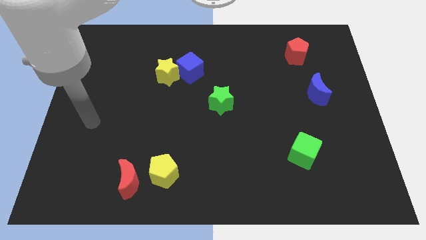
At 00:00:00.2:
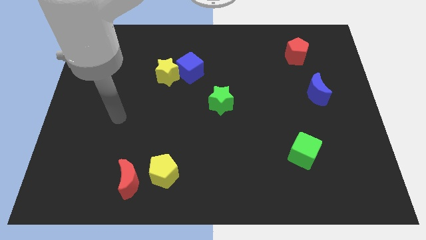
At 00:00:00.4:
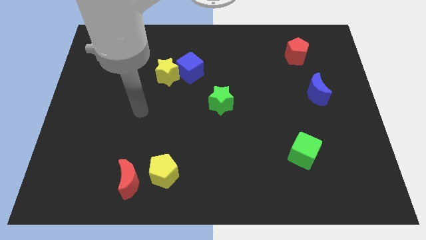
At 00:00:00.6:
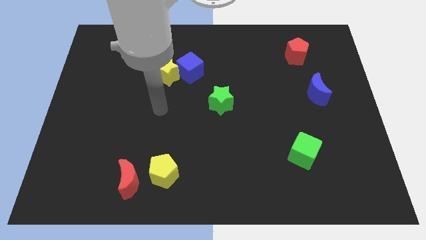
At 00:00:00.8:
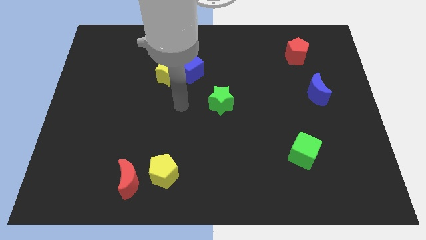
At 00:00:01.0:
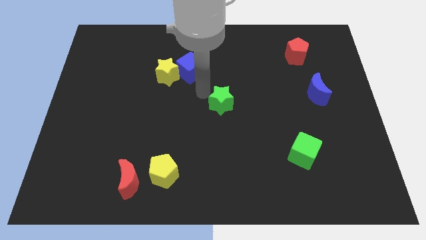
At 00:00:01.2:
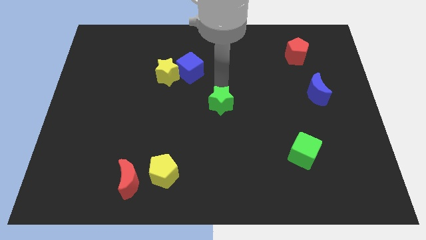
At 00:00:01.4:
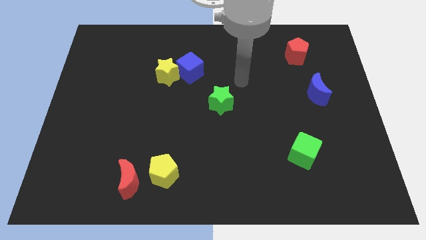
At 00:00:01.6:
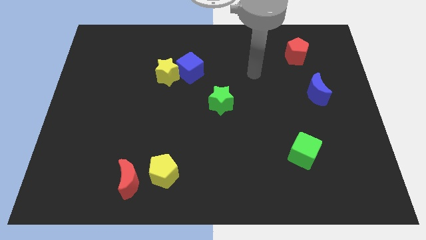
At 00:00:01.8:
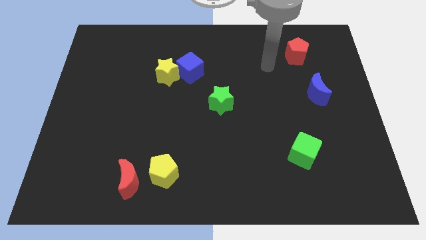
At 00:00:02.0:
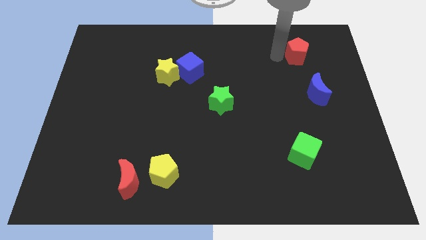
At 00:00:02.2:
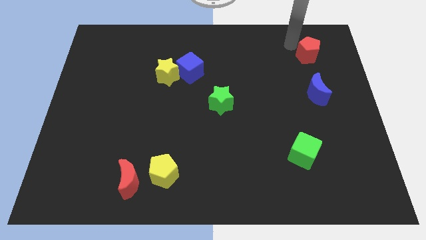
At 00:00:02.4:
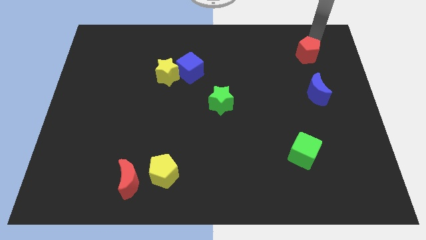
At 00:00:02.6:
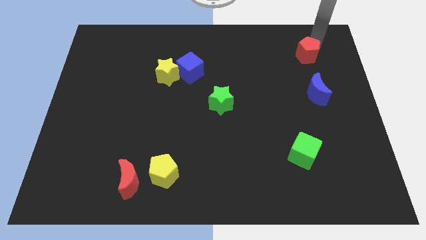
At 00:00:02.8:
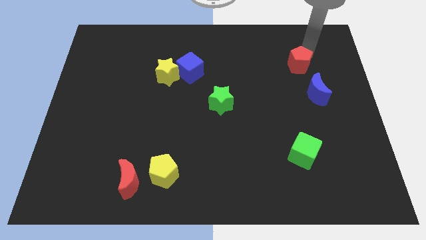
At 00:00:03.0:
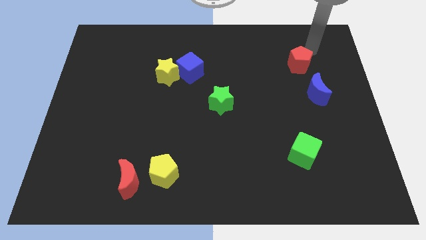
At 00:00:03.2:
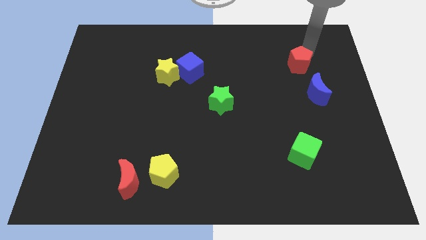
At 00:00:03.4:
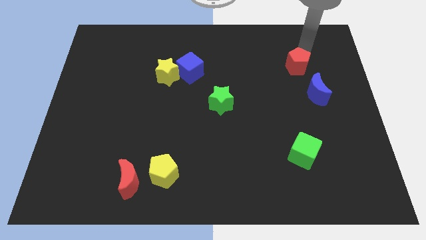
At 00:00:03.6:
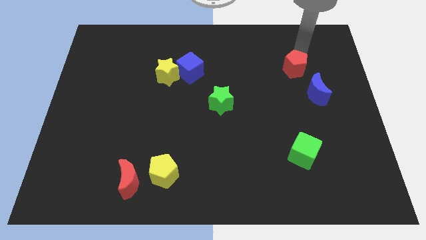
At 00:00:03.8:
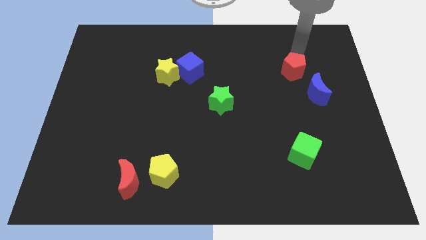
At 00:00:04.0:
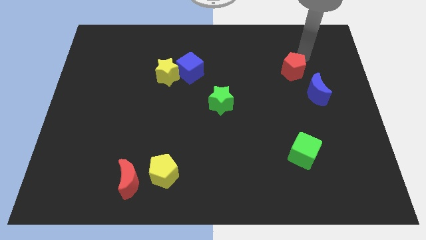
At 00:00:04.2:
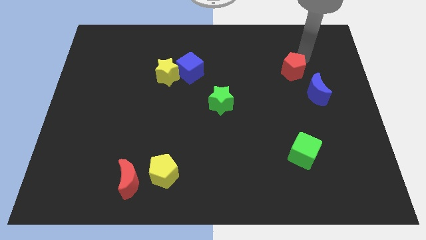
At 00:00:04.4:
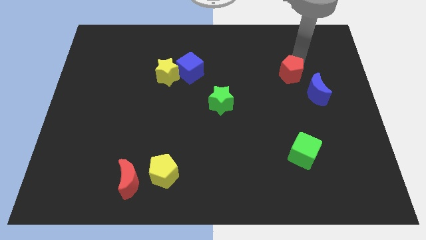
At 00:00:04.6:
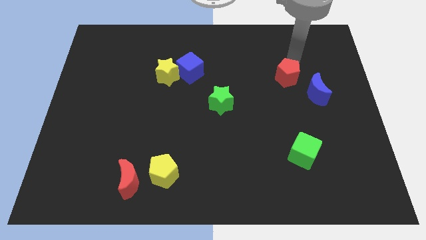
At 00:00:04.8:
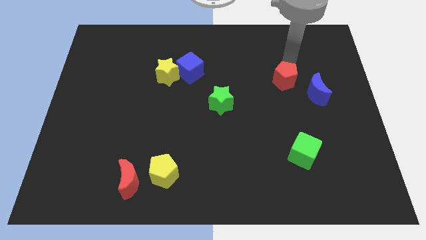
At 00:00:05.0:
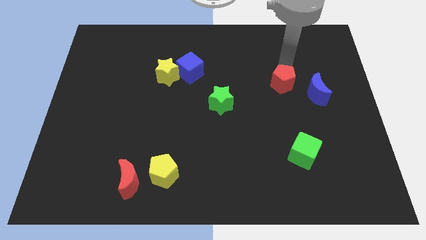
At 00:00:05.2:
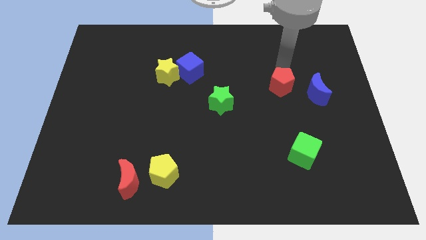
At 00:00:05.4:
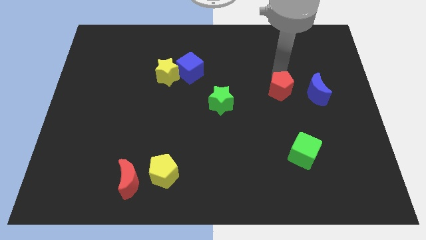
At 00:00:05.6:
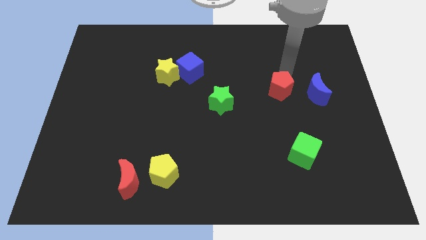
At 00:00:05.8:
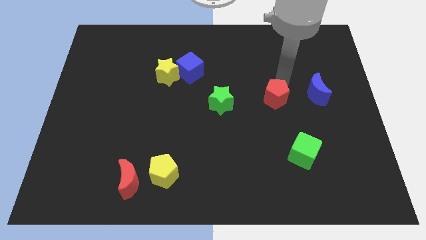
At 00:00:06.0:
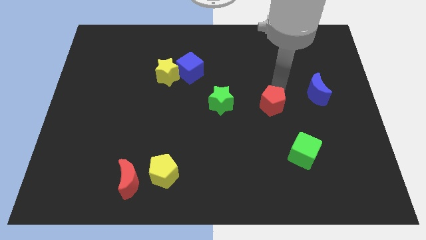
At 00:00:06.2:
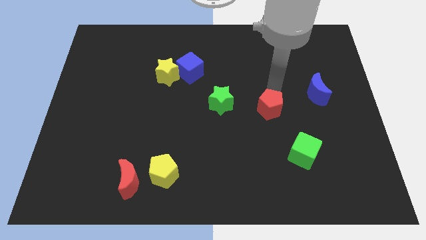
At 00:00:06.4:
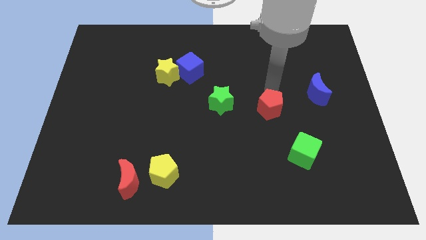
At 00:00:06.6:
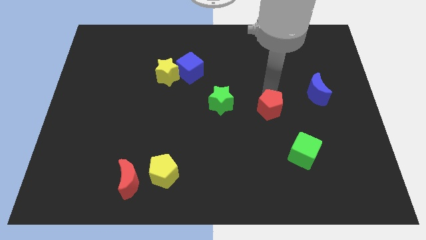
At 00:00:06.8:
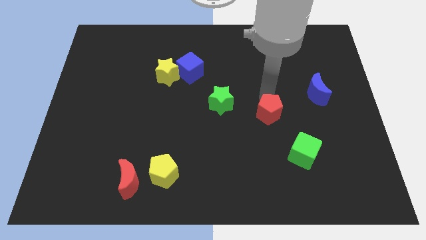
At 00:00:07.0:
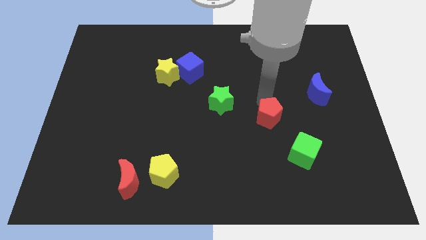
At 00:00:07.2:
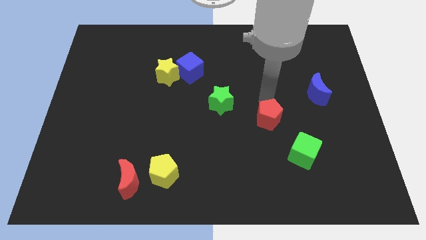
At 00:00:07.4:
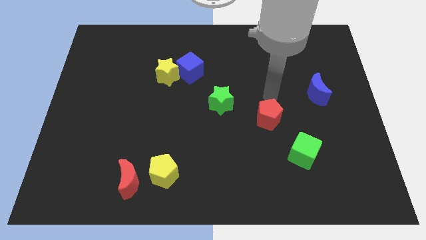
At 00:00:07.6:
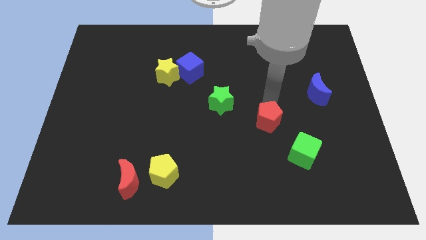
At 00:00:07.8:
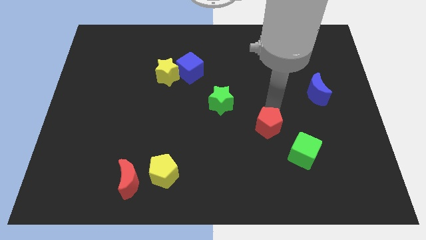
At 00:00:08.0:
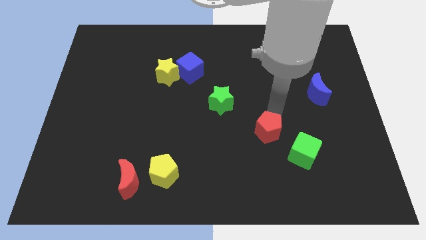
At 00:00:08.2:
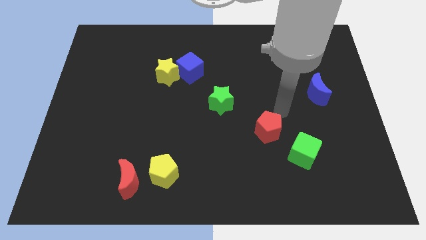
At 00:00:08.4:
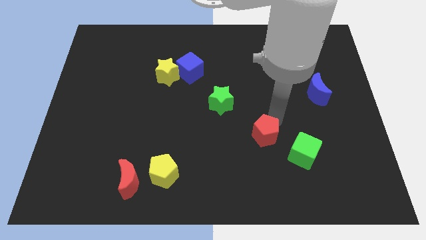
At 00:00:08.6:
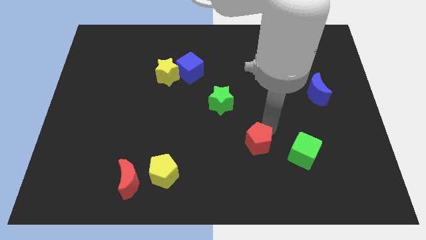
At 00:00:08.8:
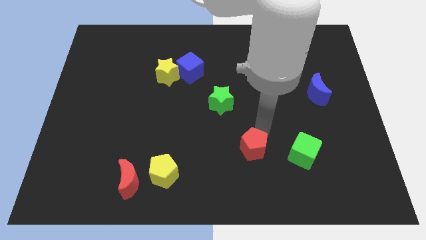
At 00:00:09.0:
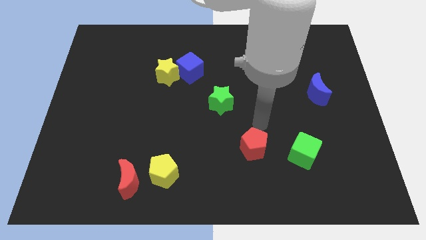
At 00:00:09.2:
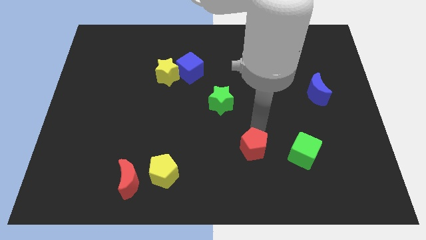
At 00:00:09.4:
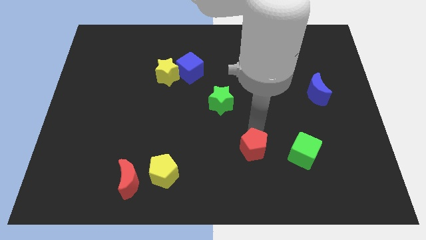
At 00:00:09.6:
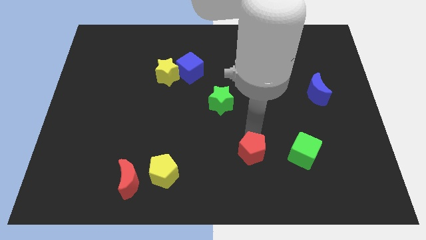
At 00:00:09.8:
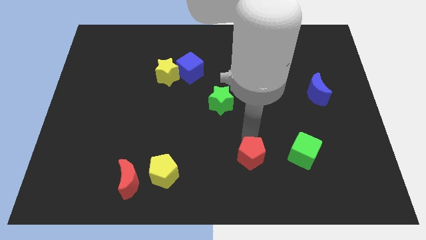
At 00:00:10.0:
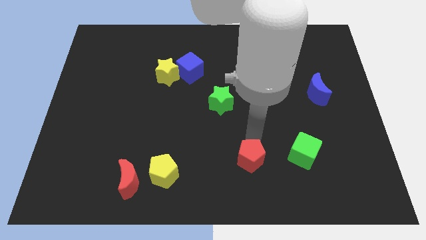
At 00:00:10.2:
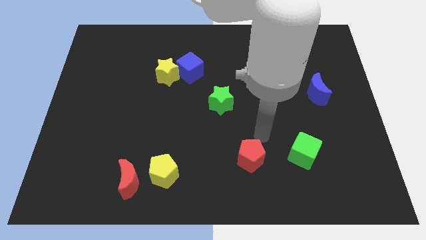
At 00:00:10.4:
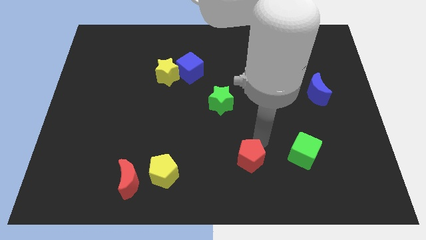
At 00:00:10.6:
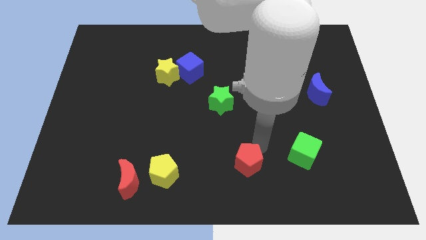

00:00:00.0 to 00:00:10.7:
put the red pentagon to the bottom

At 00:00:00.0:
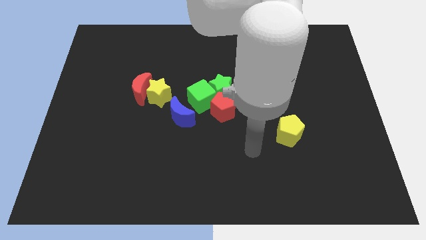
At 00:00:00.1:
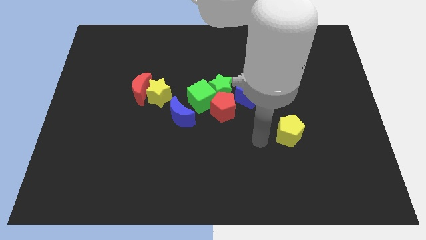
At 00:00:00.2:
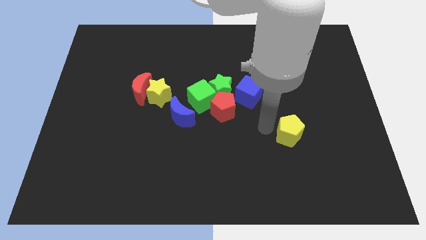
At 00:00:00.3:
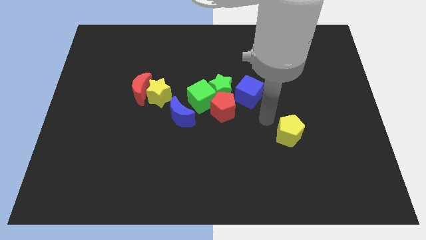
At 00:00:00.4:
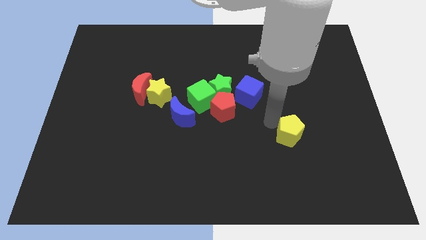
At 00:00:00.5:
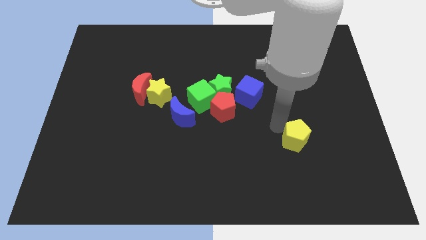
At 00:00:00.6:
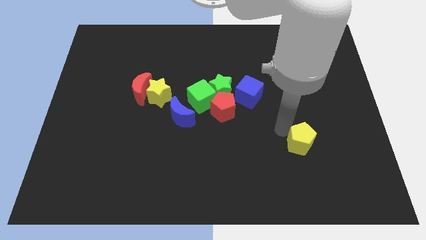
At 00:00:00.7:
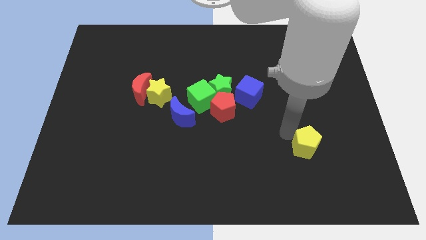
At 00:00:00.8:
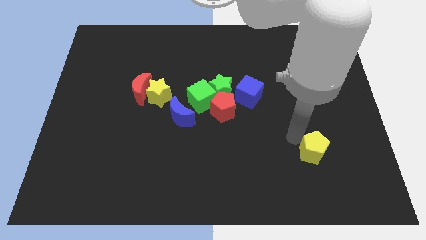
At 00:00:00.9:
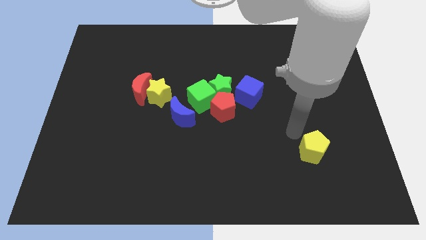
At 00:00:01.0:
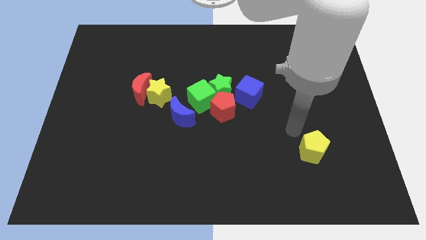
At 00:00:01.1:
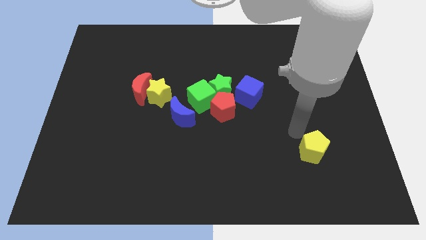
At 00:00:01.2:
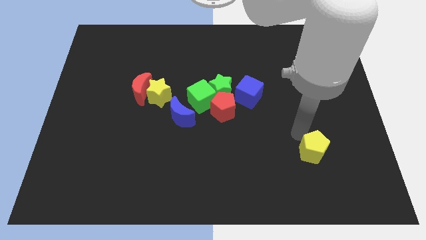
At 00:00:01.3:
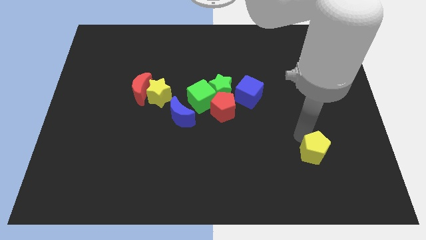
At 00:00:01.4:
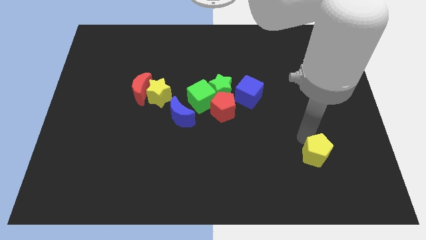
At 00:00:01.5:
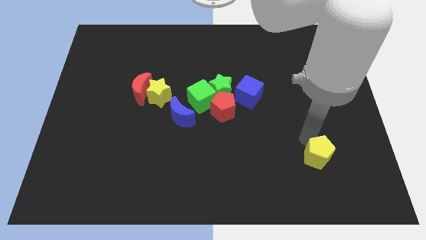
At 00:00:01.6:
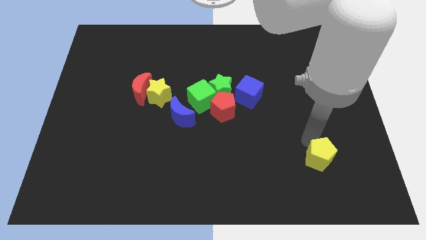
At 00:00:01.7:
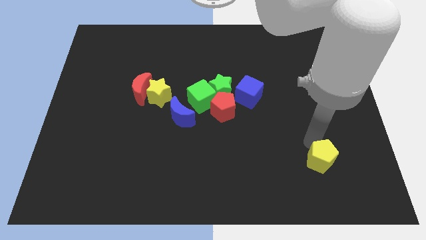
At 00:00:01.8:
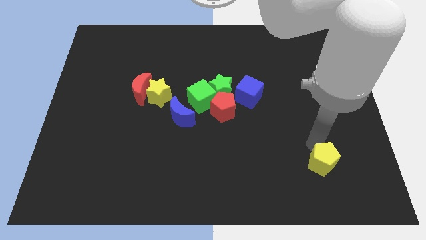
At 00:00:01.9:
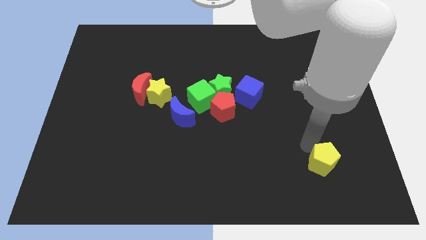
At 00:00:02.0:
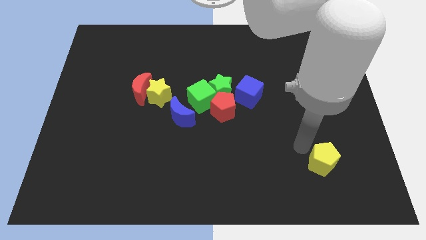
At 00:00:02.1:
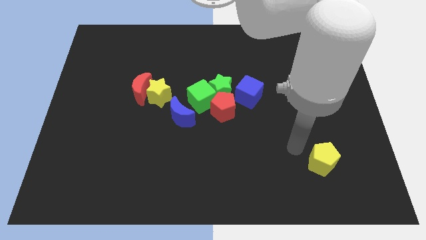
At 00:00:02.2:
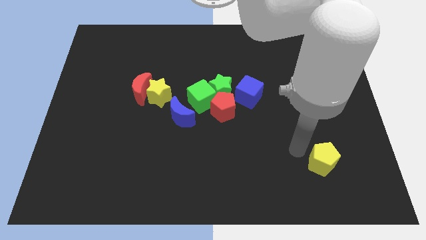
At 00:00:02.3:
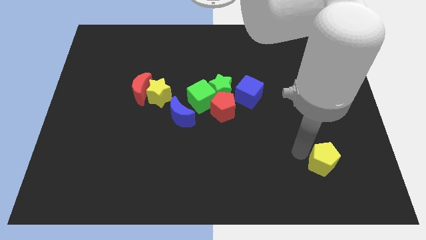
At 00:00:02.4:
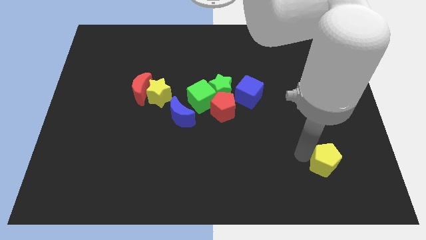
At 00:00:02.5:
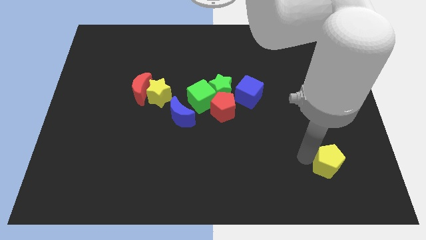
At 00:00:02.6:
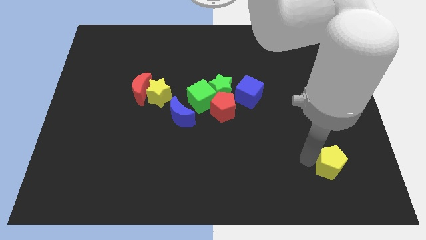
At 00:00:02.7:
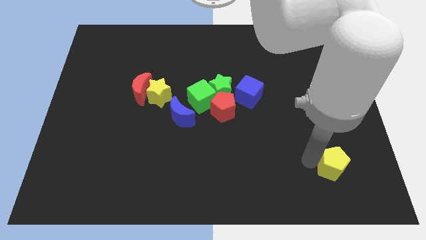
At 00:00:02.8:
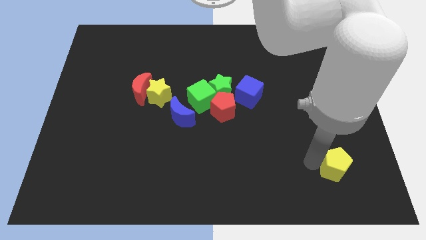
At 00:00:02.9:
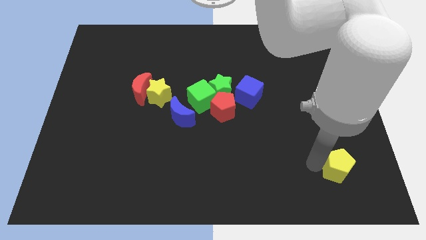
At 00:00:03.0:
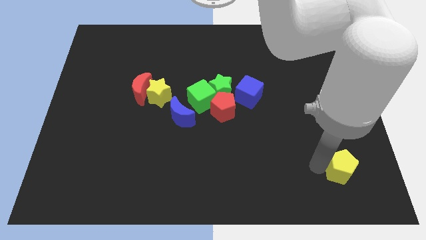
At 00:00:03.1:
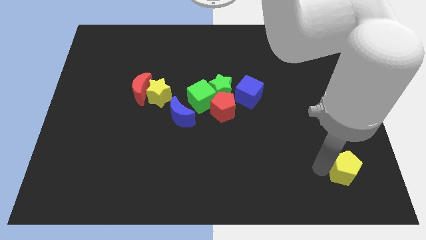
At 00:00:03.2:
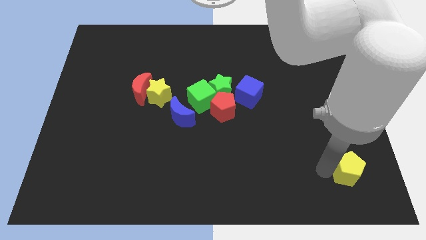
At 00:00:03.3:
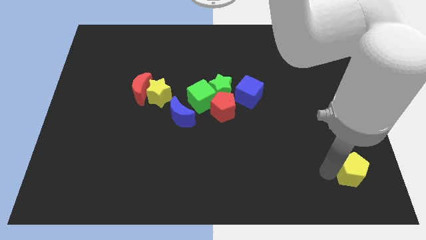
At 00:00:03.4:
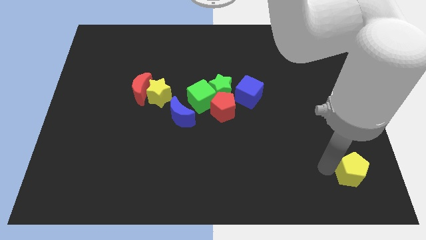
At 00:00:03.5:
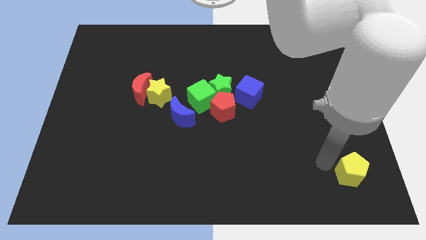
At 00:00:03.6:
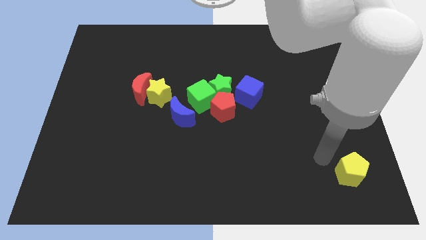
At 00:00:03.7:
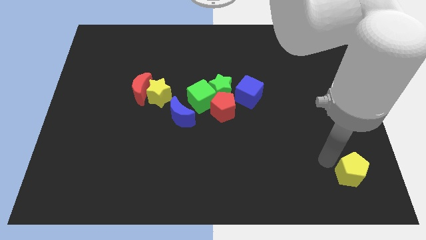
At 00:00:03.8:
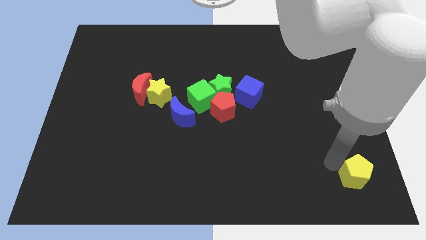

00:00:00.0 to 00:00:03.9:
slide the yellow pentagon to the lower right corner
